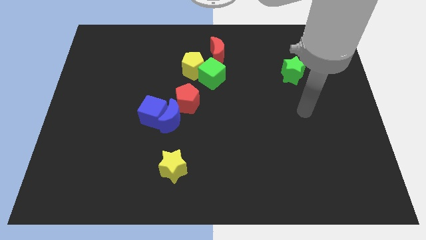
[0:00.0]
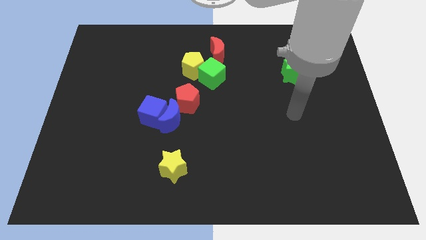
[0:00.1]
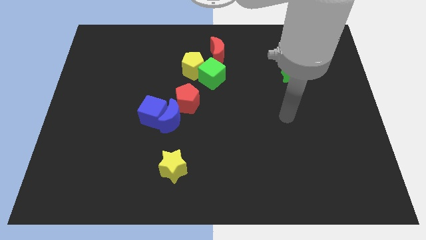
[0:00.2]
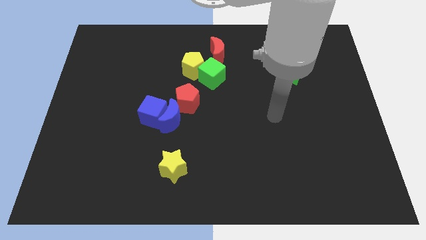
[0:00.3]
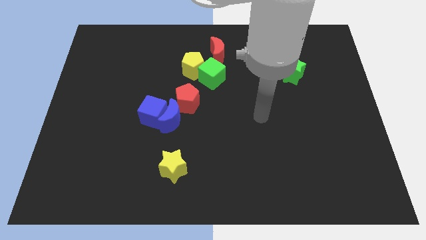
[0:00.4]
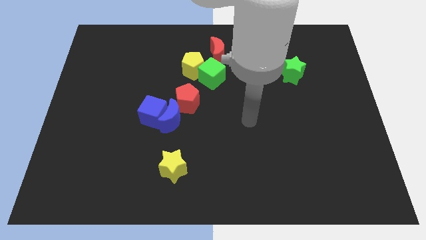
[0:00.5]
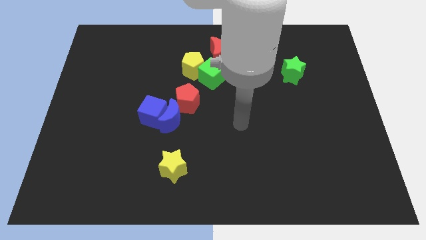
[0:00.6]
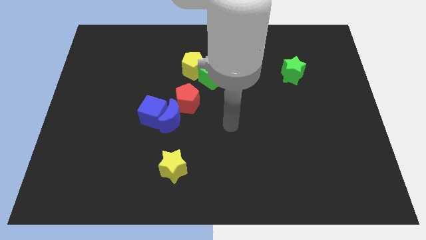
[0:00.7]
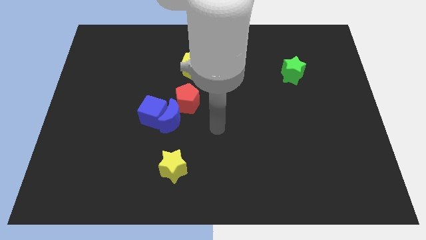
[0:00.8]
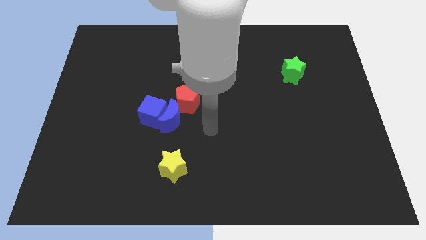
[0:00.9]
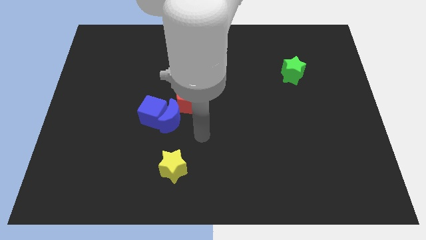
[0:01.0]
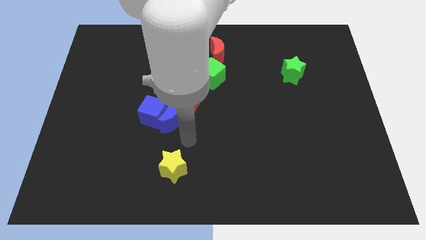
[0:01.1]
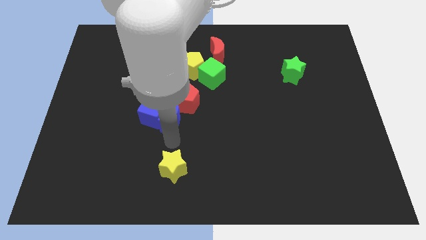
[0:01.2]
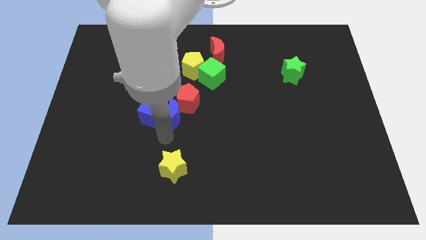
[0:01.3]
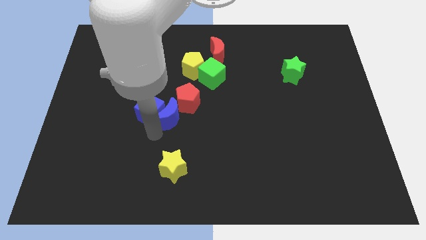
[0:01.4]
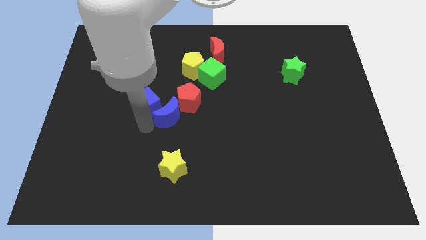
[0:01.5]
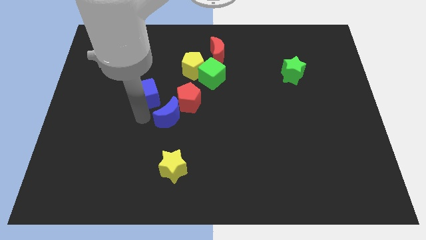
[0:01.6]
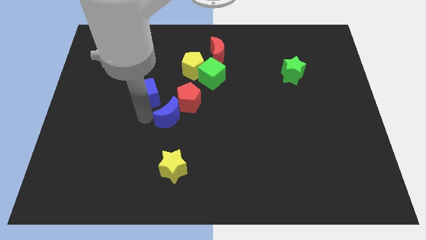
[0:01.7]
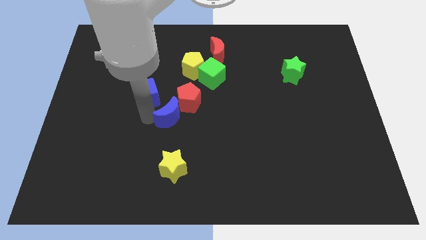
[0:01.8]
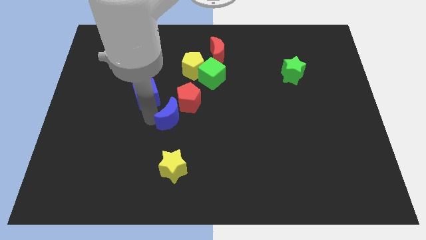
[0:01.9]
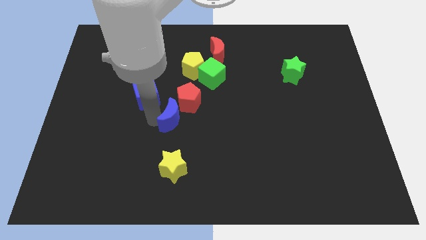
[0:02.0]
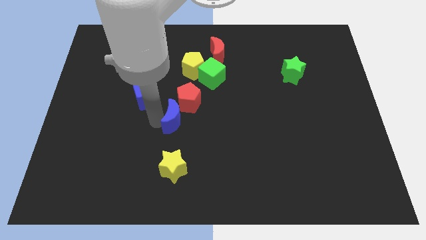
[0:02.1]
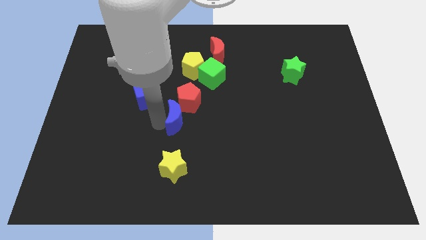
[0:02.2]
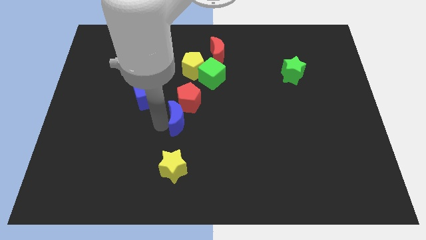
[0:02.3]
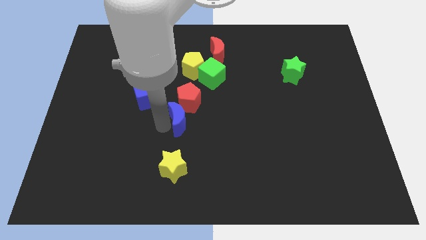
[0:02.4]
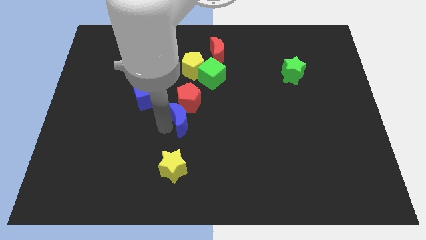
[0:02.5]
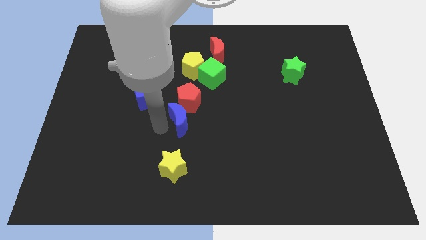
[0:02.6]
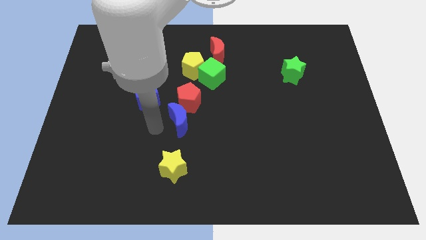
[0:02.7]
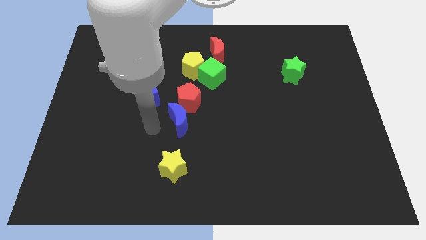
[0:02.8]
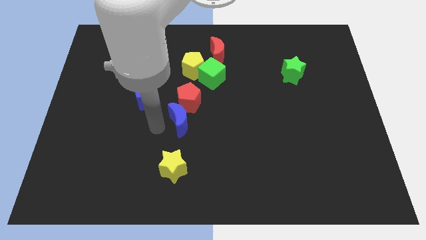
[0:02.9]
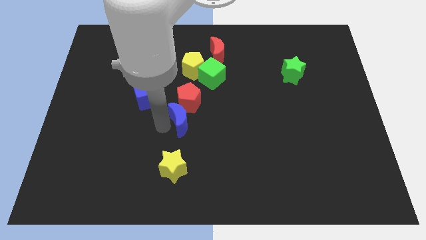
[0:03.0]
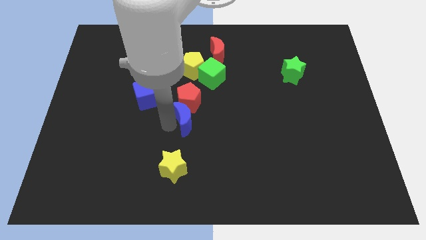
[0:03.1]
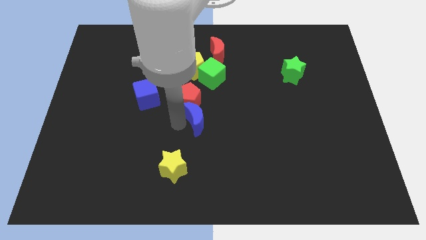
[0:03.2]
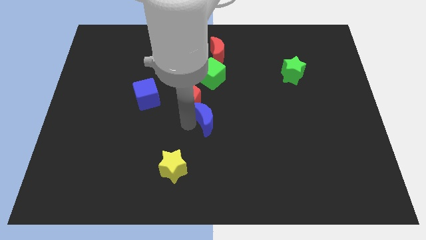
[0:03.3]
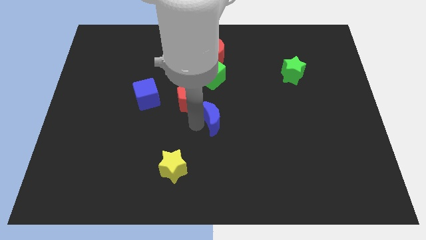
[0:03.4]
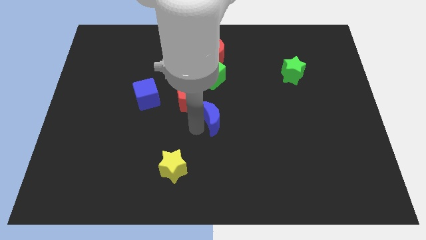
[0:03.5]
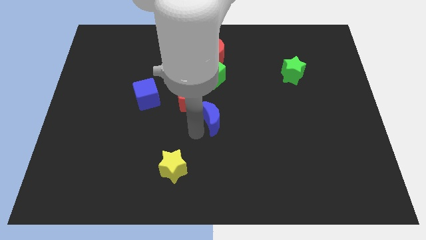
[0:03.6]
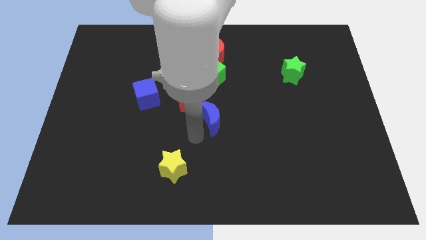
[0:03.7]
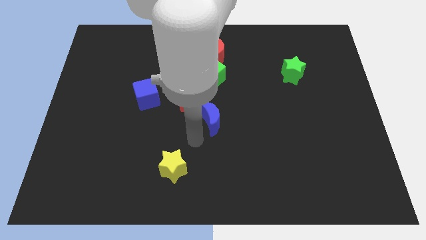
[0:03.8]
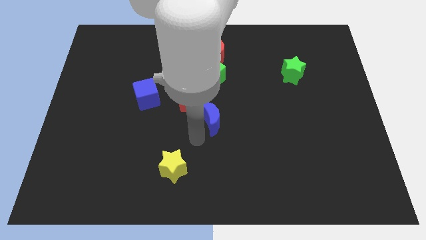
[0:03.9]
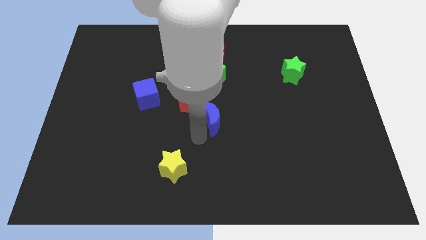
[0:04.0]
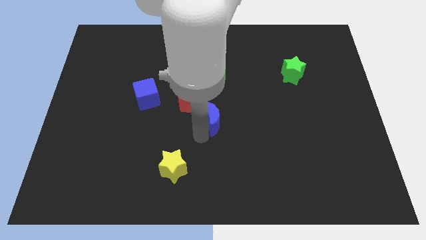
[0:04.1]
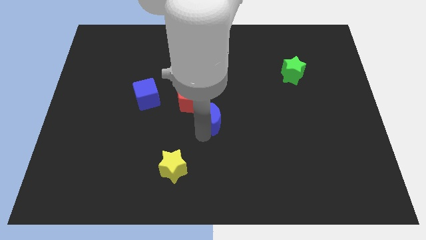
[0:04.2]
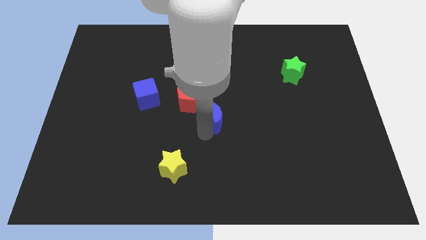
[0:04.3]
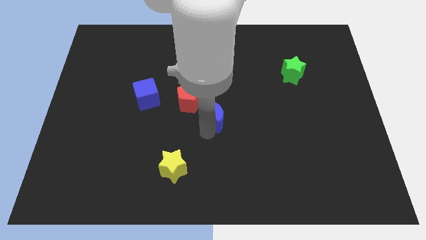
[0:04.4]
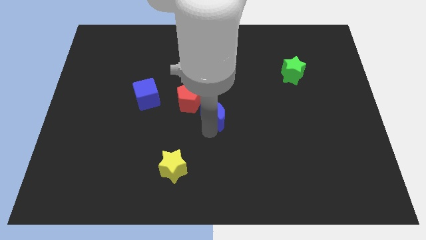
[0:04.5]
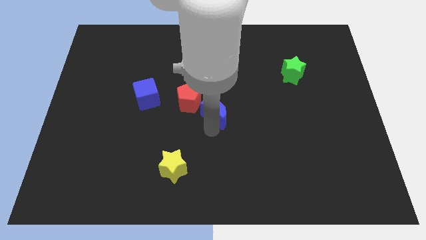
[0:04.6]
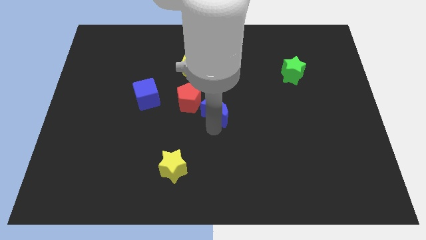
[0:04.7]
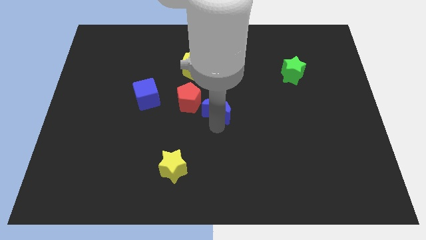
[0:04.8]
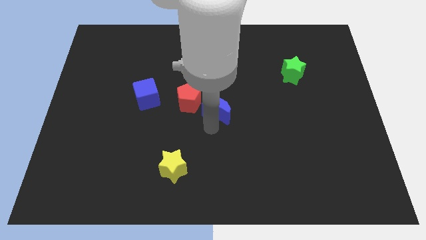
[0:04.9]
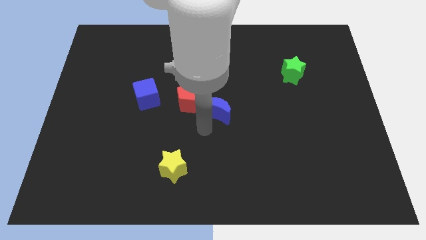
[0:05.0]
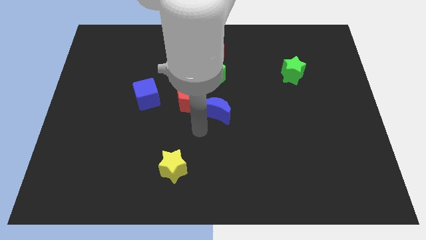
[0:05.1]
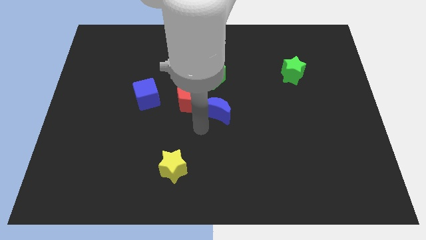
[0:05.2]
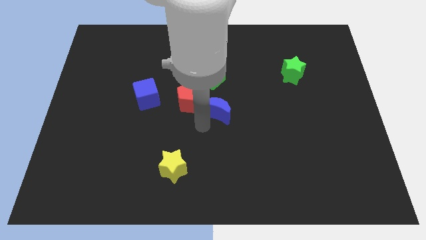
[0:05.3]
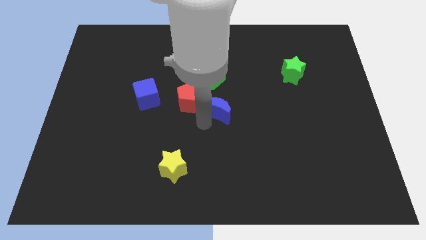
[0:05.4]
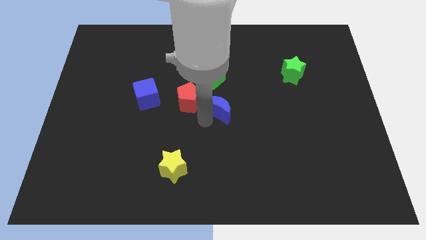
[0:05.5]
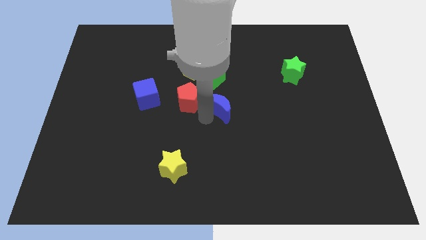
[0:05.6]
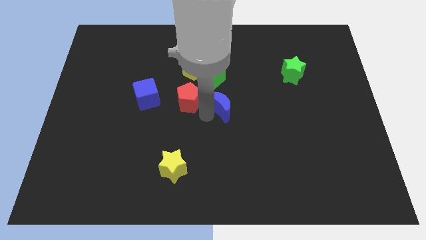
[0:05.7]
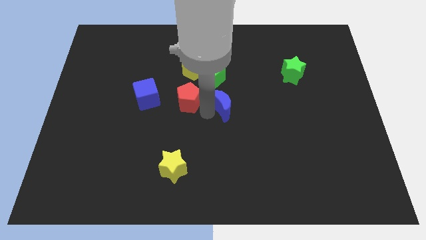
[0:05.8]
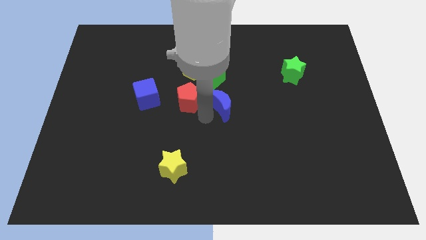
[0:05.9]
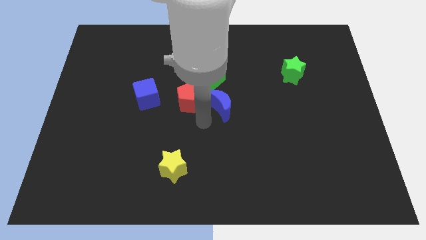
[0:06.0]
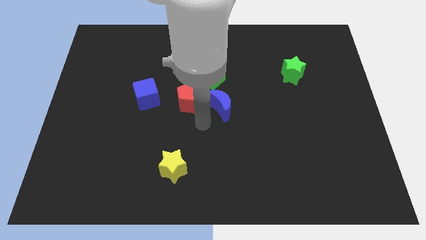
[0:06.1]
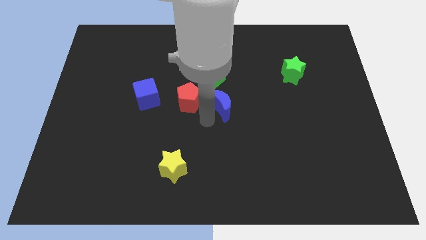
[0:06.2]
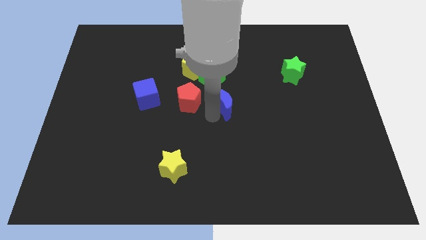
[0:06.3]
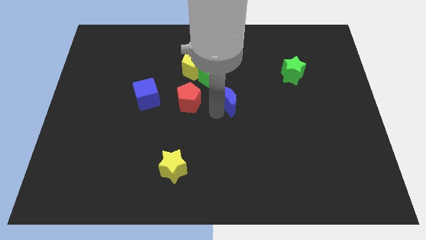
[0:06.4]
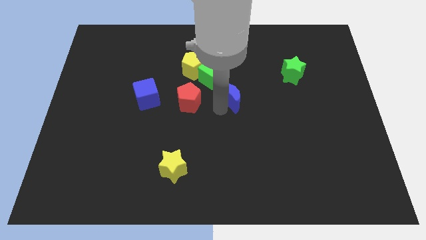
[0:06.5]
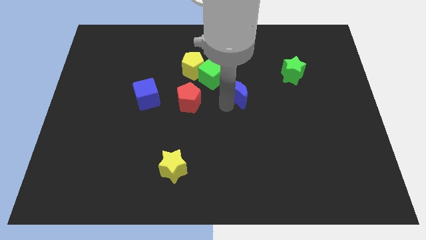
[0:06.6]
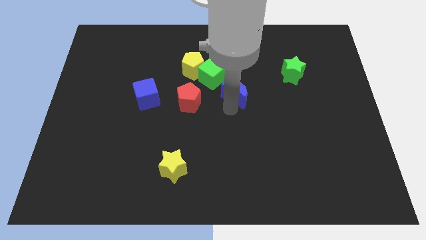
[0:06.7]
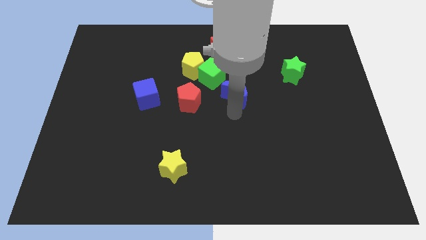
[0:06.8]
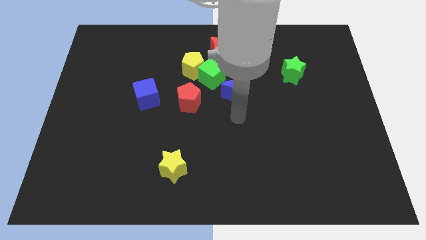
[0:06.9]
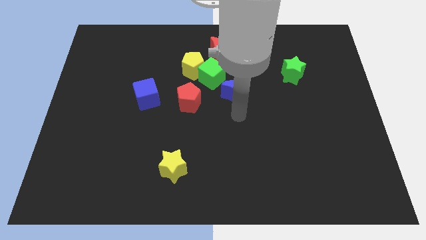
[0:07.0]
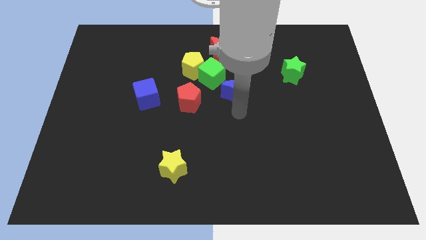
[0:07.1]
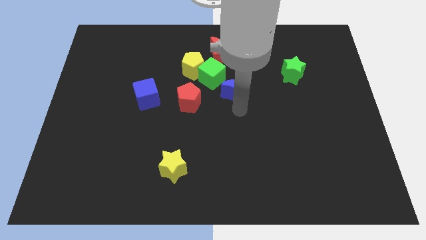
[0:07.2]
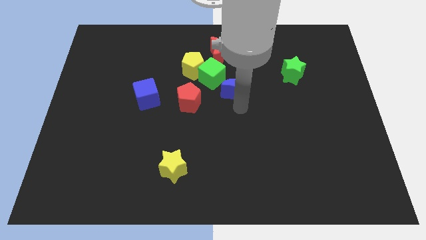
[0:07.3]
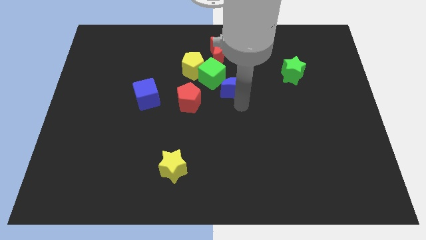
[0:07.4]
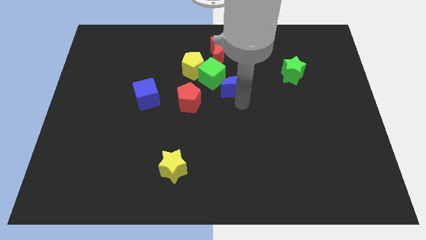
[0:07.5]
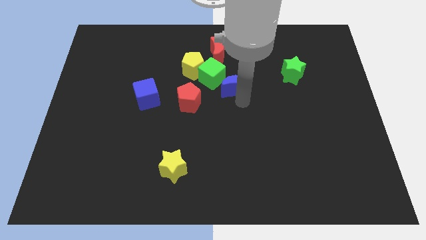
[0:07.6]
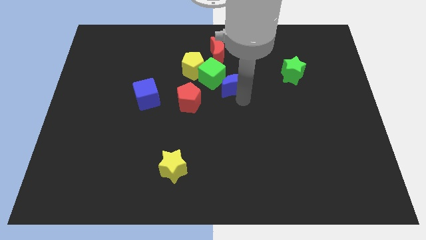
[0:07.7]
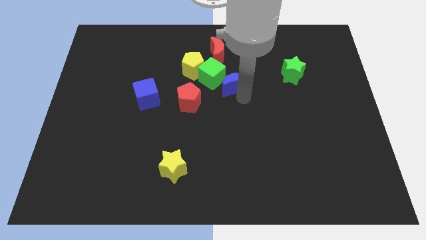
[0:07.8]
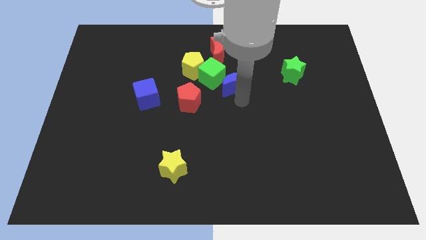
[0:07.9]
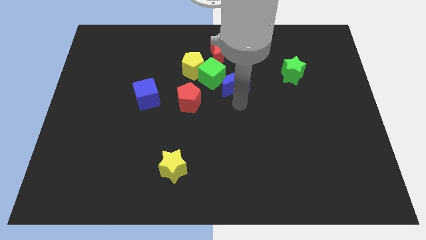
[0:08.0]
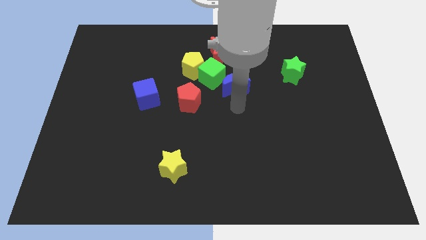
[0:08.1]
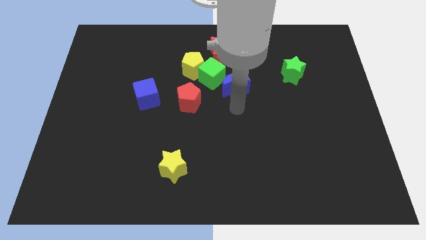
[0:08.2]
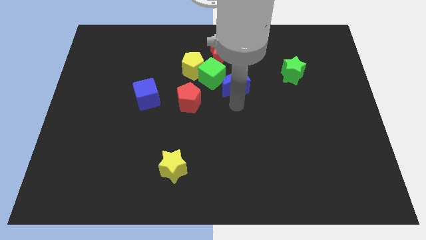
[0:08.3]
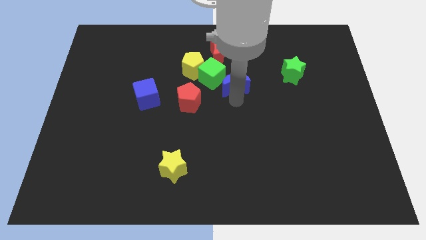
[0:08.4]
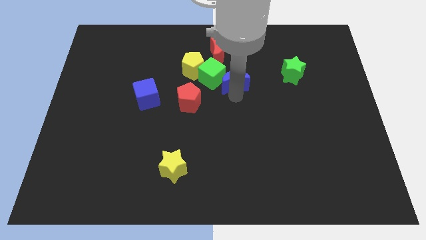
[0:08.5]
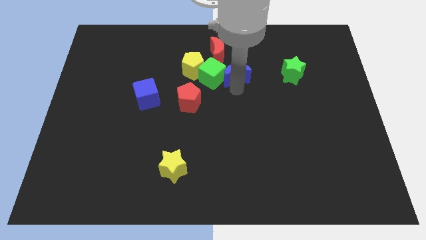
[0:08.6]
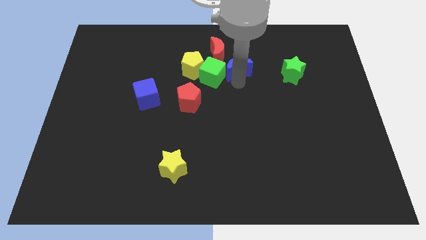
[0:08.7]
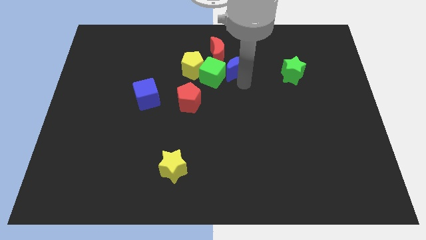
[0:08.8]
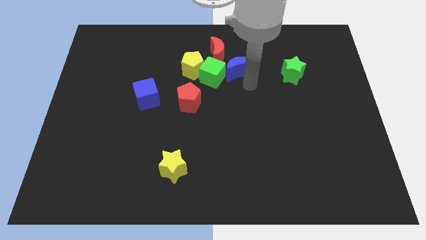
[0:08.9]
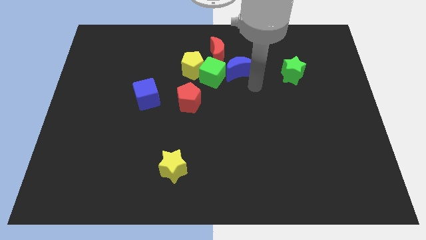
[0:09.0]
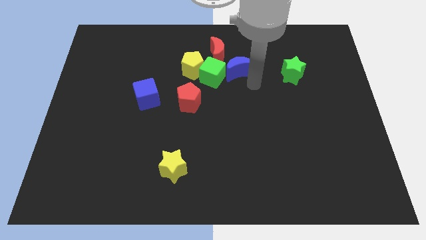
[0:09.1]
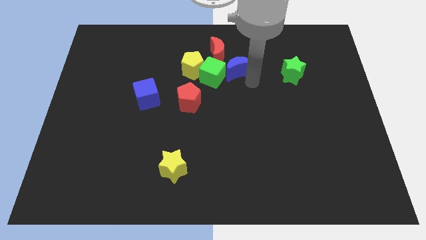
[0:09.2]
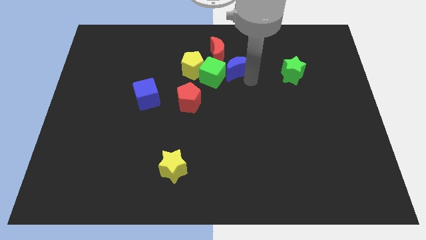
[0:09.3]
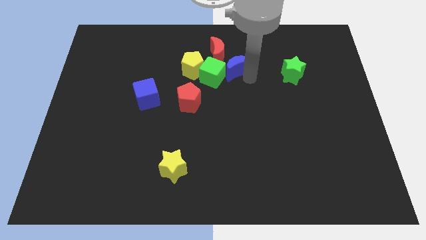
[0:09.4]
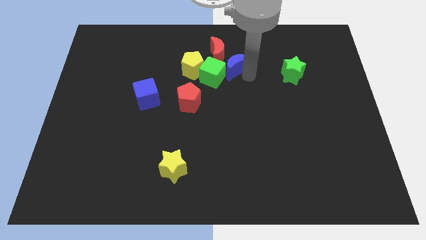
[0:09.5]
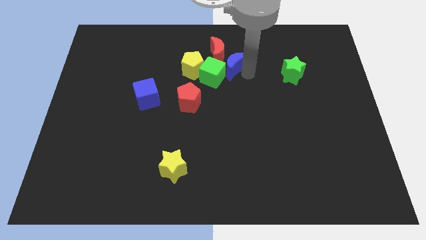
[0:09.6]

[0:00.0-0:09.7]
push the blue moon to the red moon
